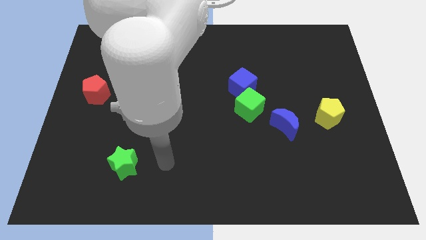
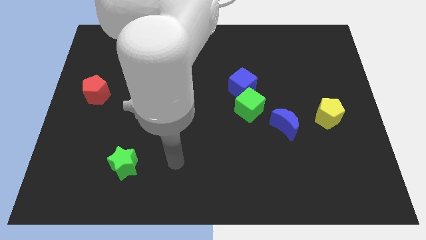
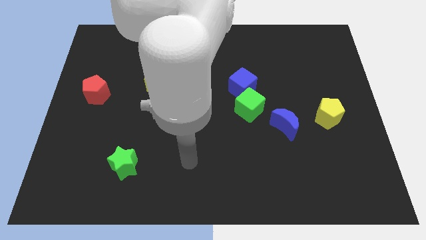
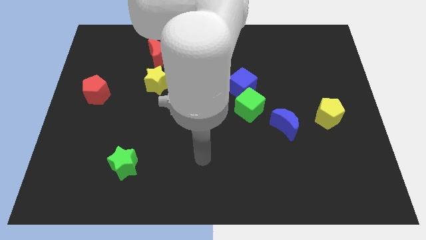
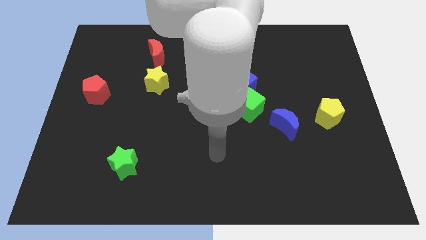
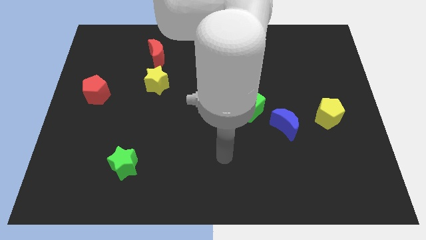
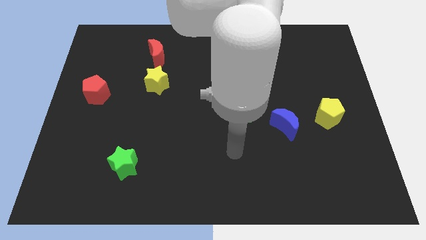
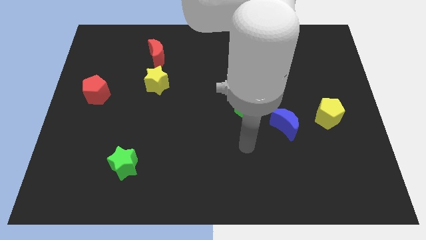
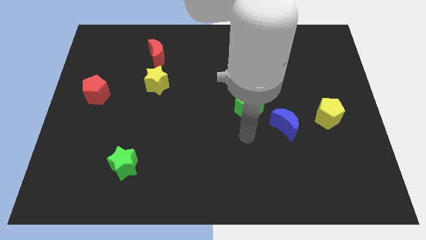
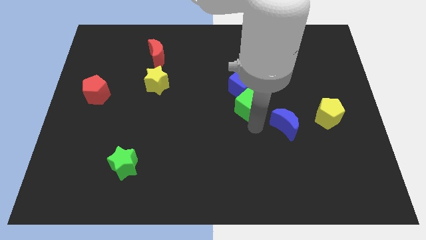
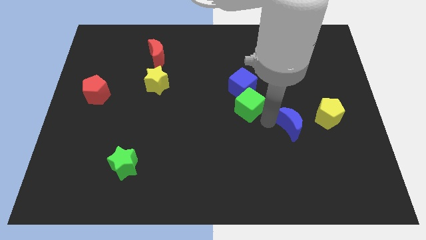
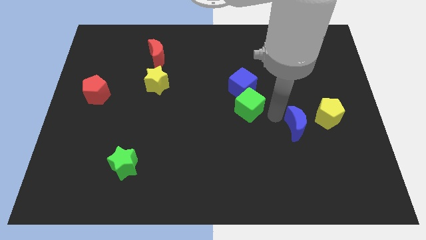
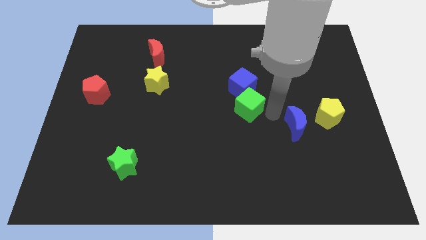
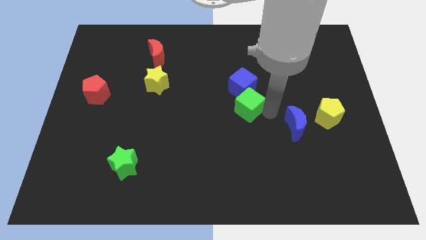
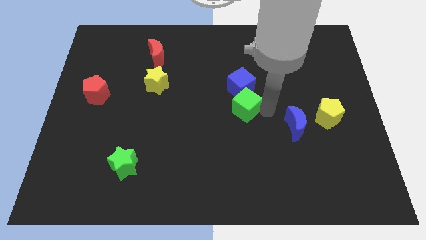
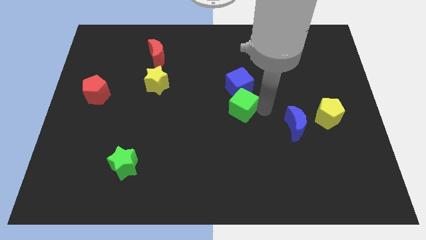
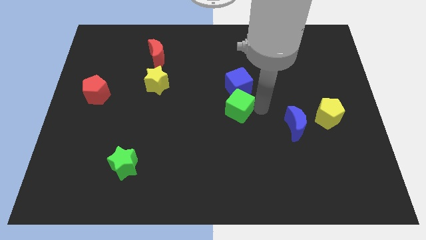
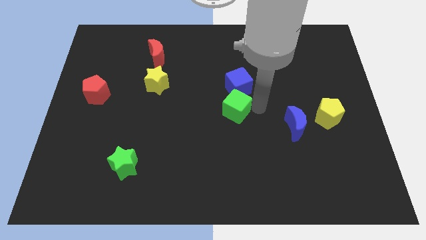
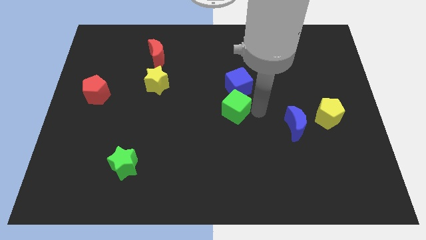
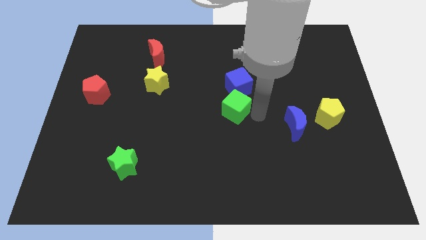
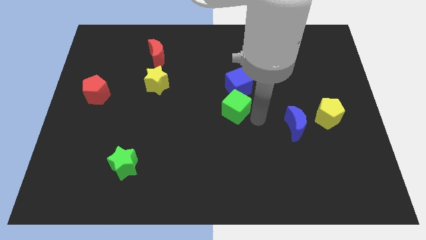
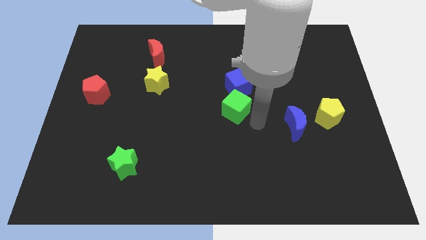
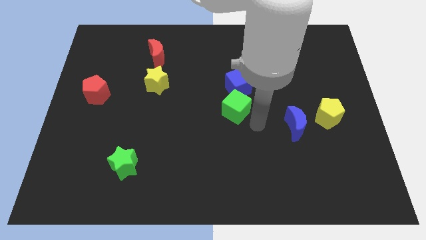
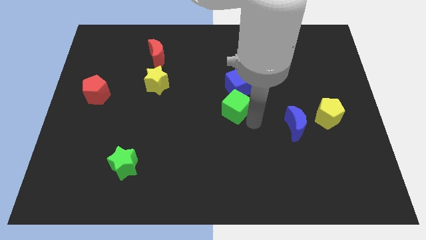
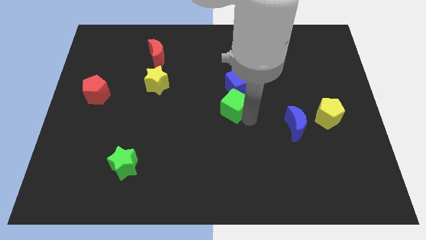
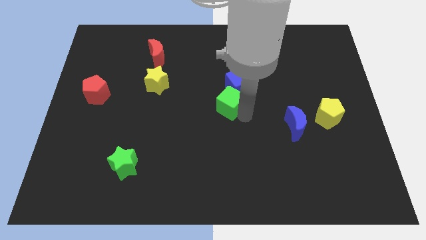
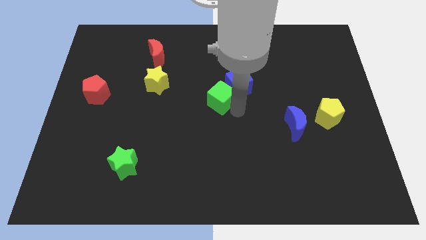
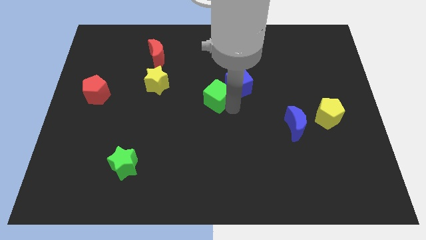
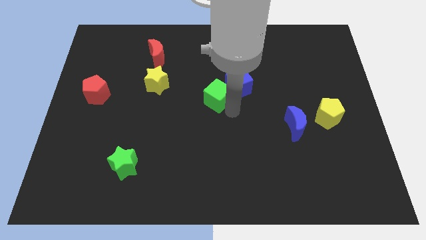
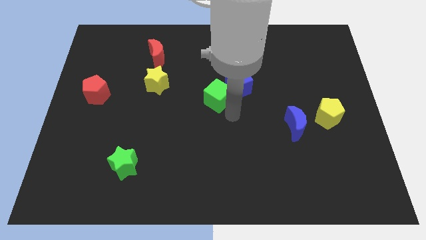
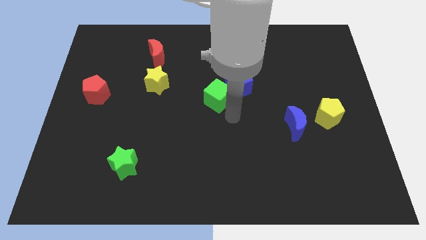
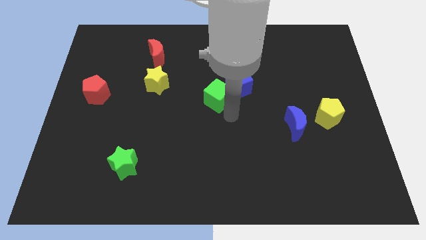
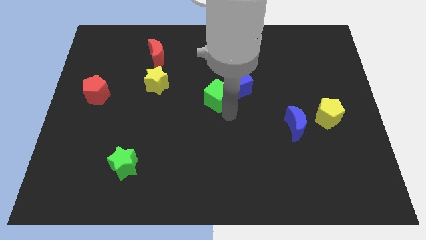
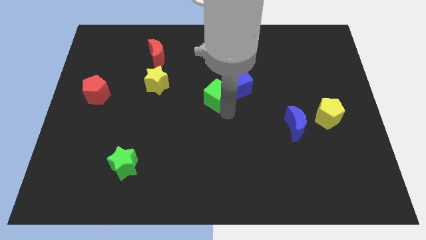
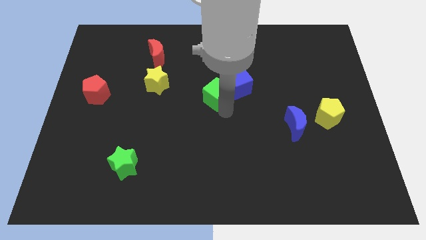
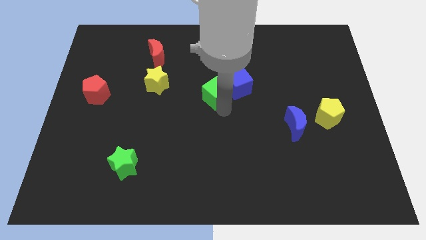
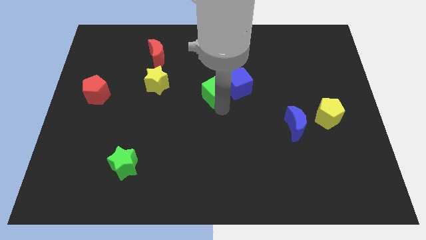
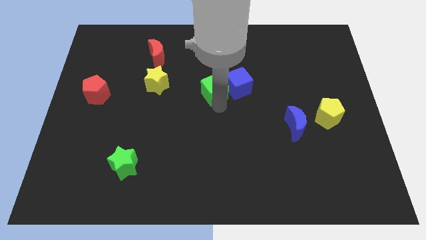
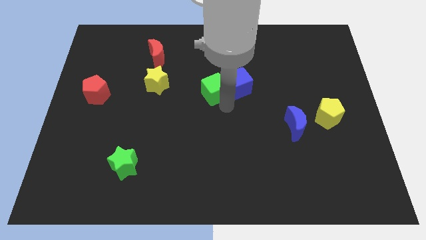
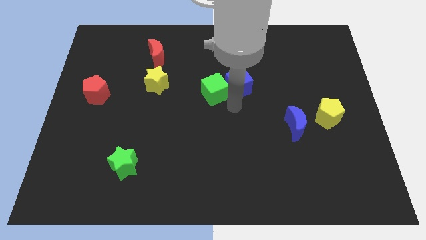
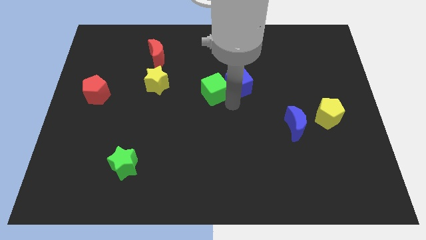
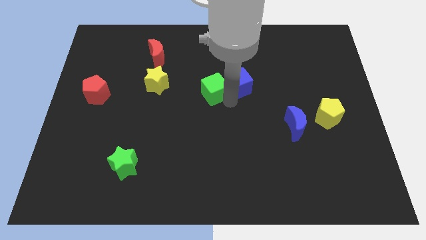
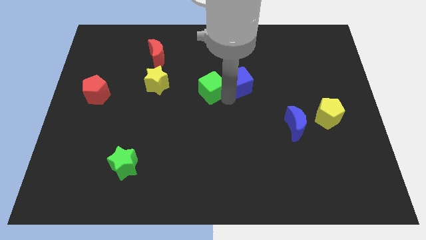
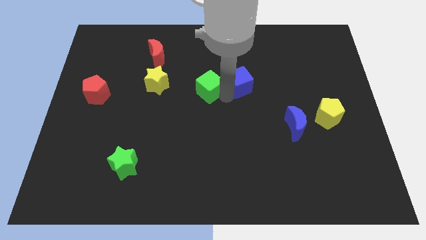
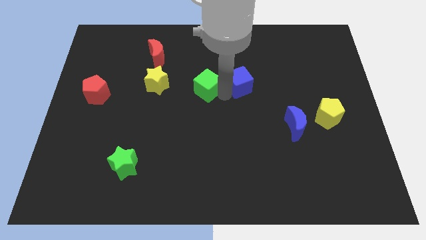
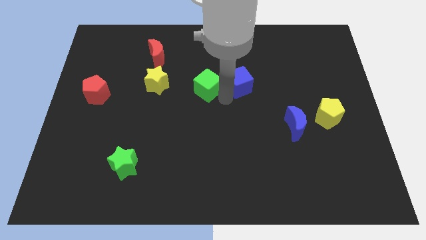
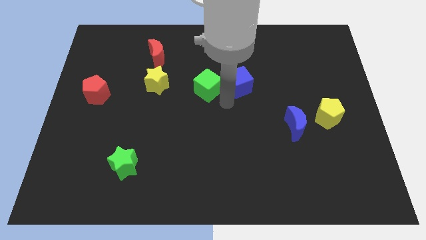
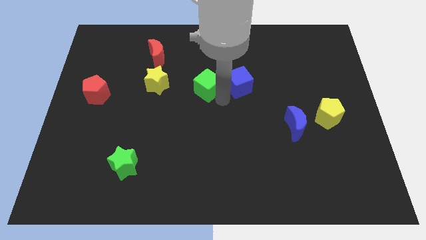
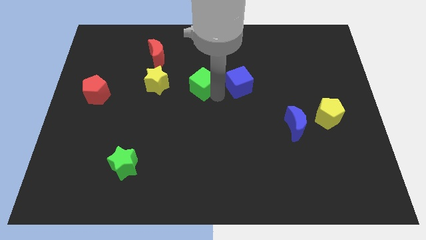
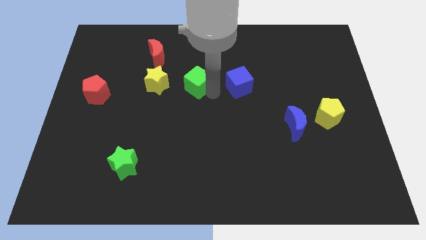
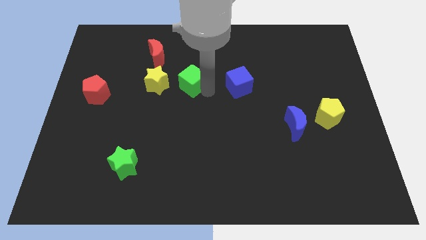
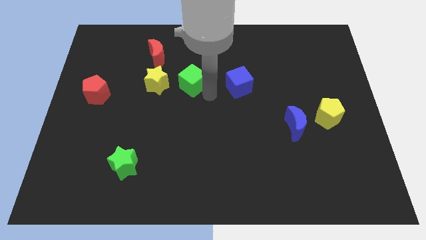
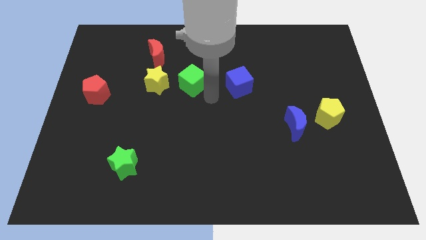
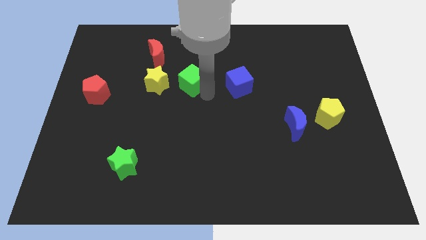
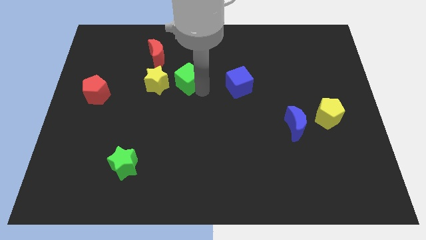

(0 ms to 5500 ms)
put the green cube to the bottom right of the red moon

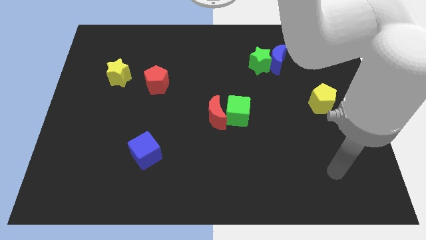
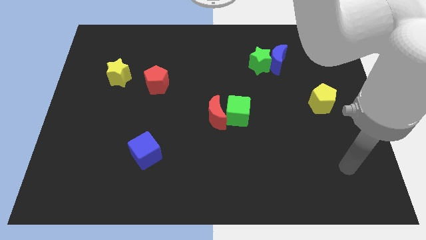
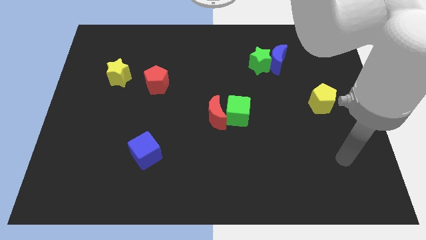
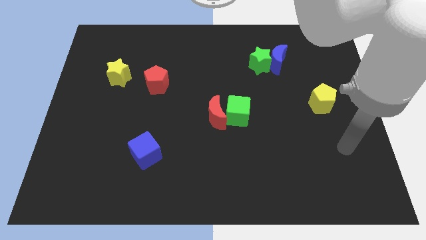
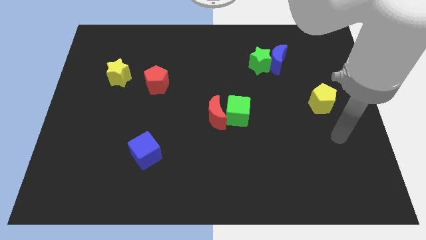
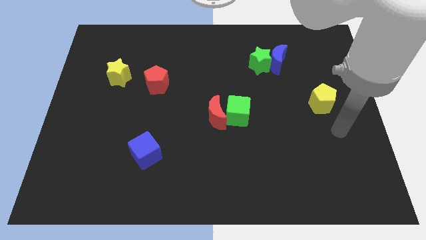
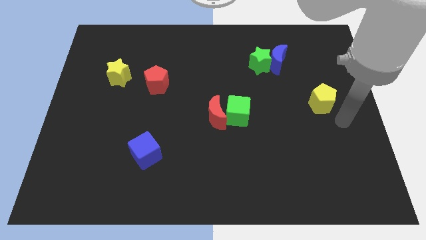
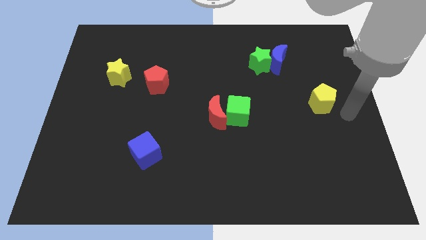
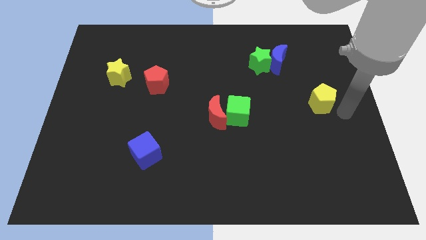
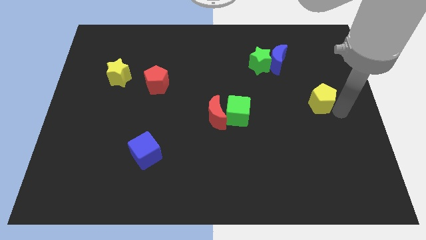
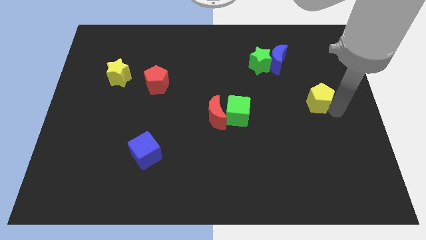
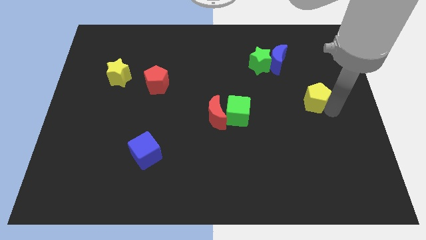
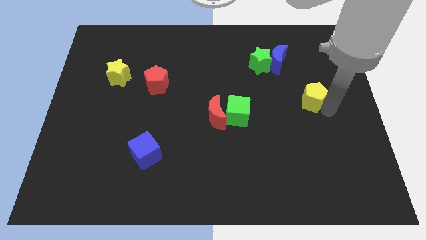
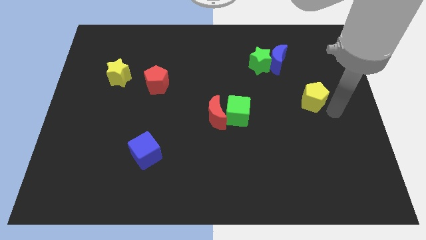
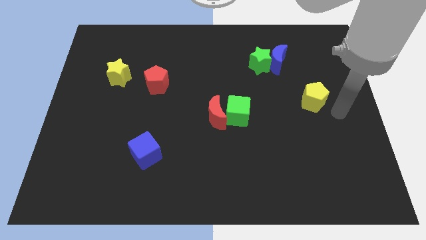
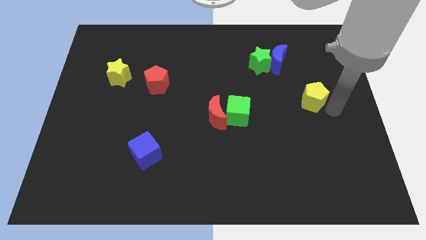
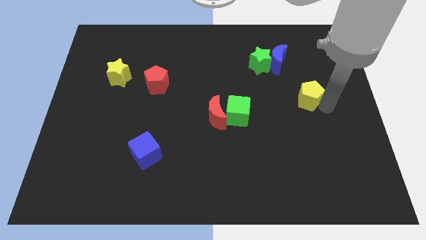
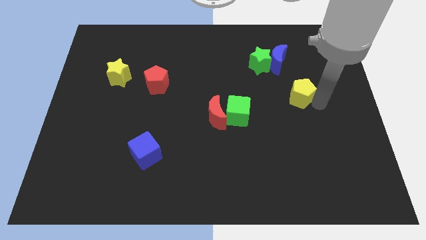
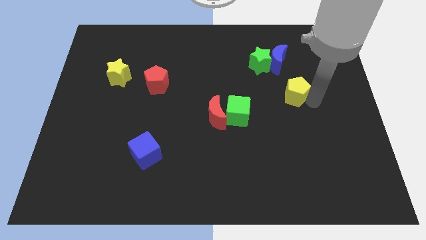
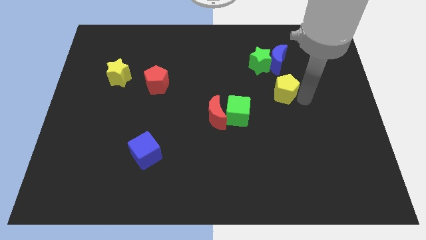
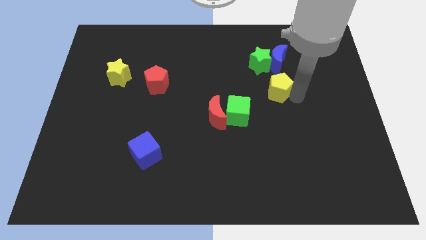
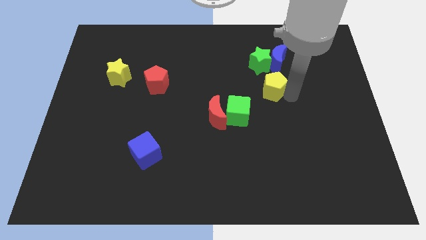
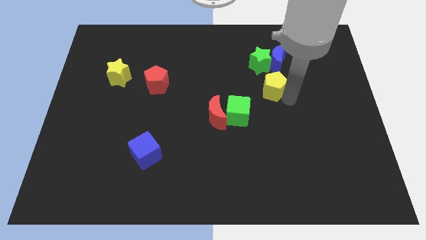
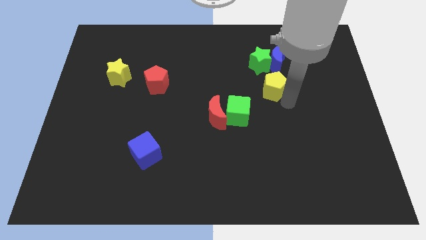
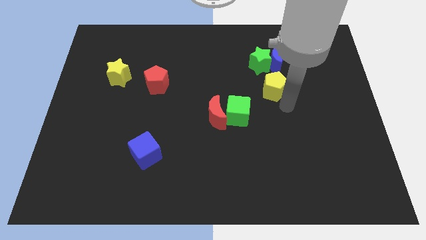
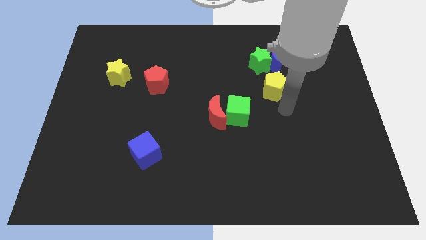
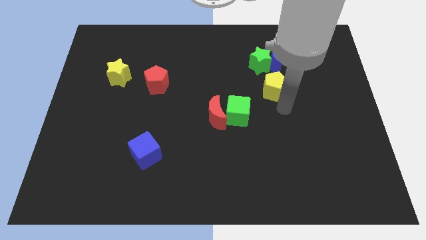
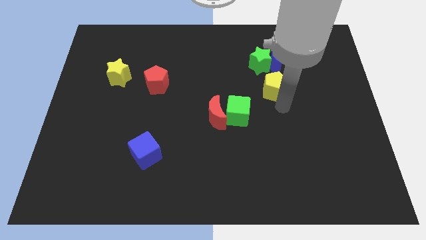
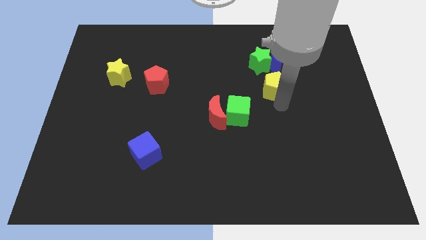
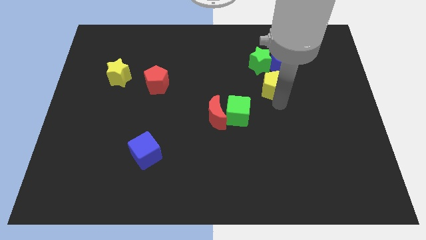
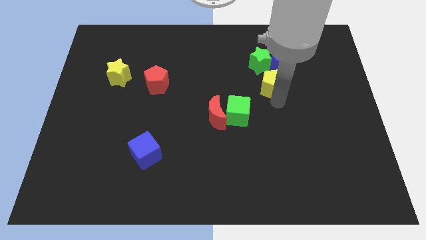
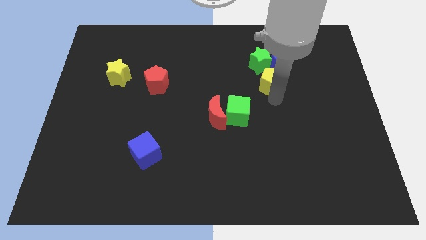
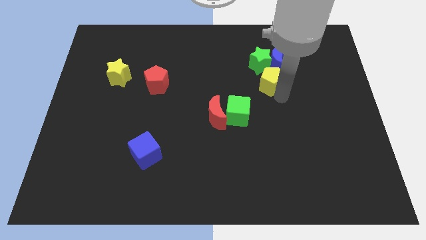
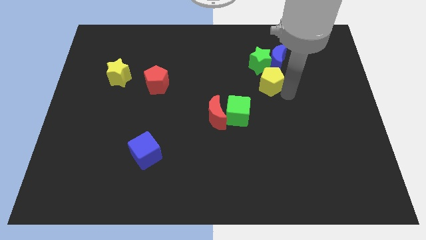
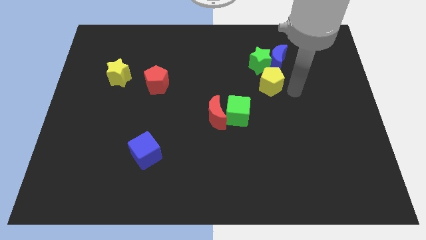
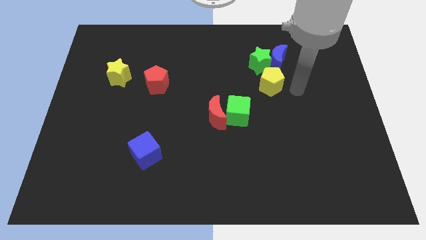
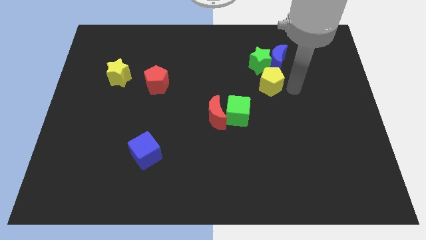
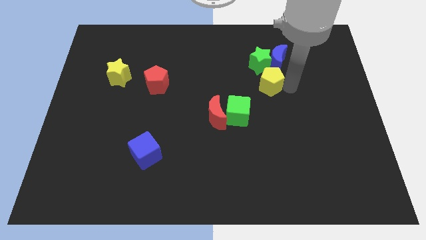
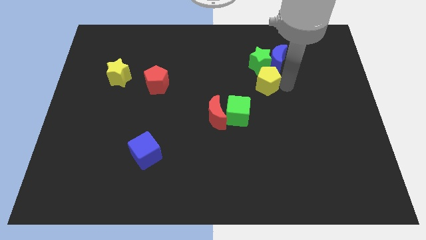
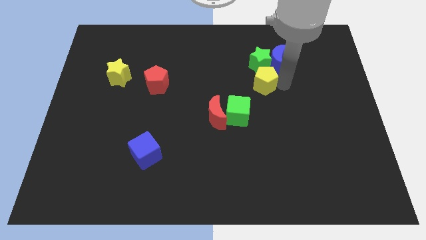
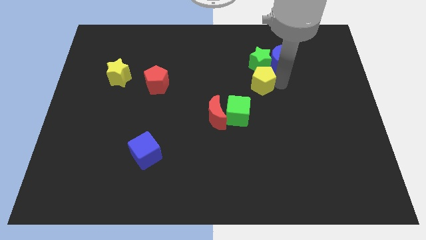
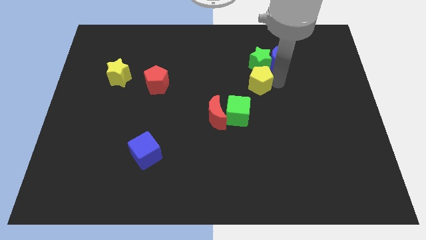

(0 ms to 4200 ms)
push the yellow pentagon to the bottom left of the green star
